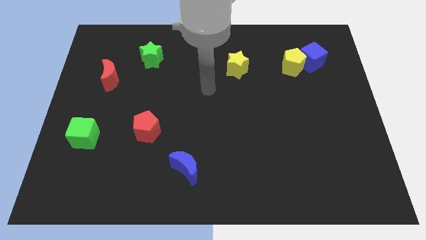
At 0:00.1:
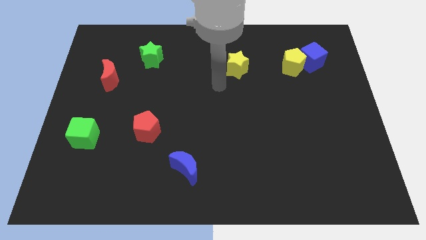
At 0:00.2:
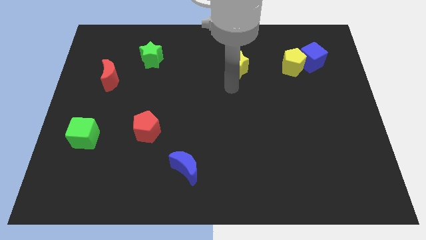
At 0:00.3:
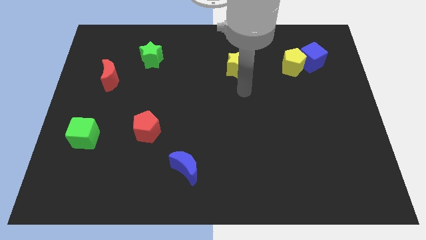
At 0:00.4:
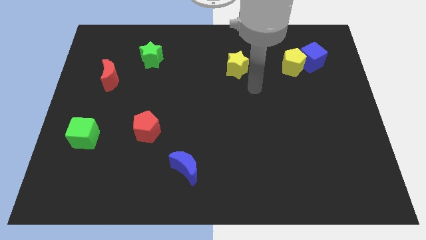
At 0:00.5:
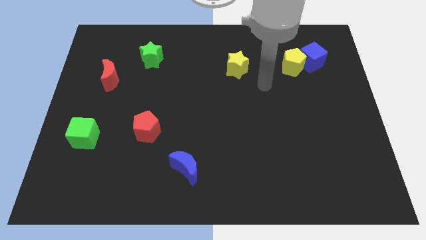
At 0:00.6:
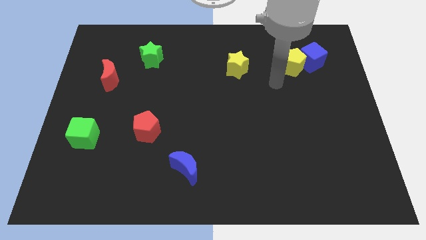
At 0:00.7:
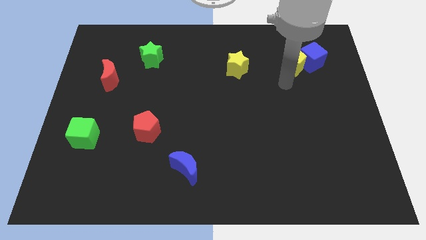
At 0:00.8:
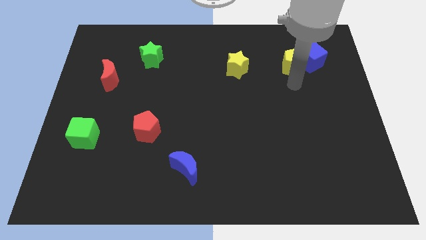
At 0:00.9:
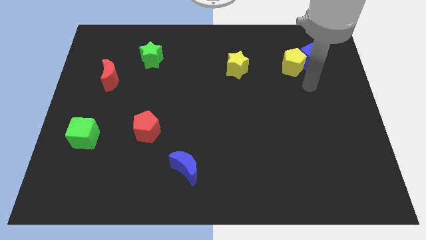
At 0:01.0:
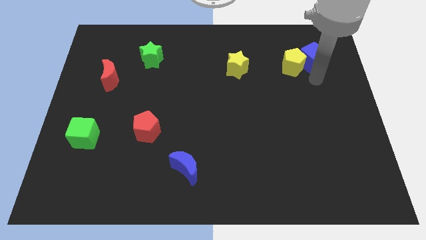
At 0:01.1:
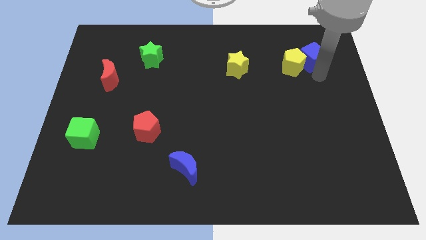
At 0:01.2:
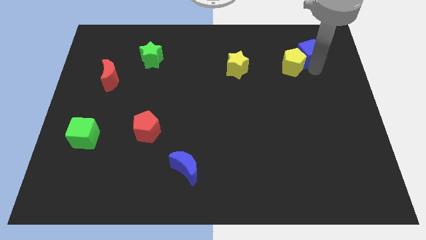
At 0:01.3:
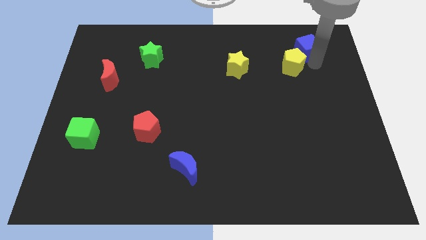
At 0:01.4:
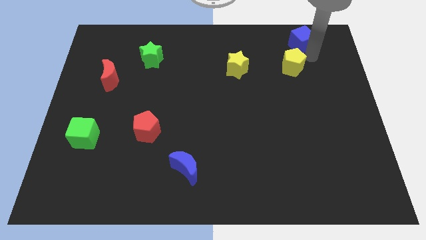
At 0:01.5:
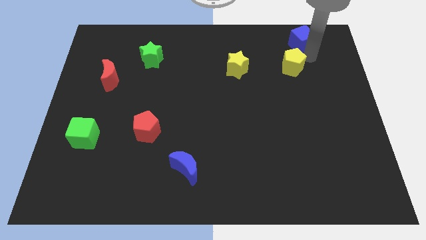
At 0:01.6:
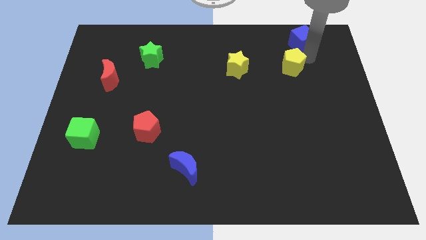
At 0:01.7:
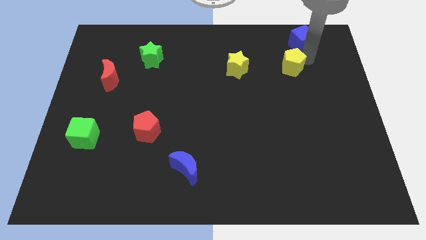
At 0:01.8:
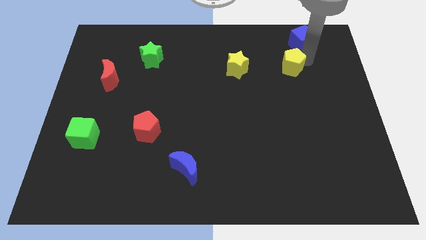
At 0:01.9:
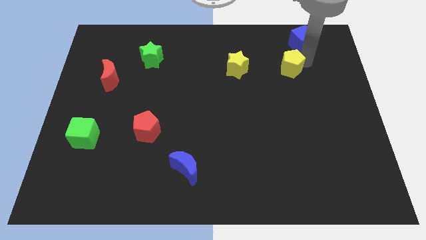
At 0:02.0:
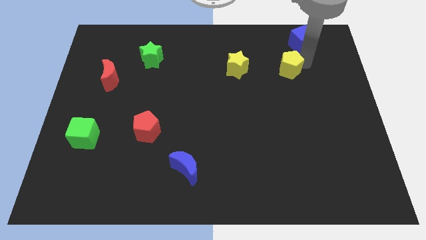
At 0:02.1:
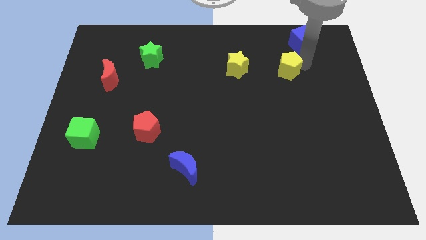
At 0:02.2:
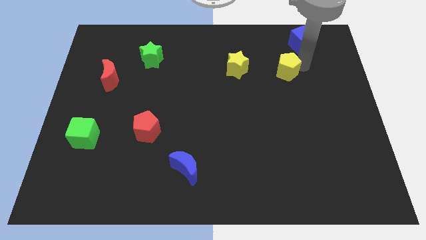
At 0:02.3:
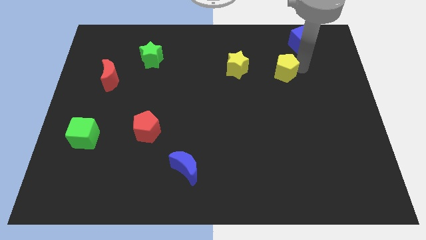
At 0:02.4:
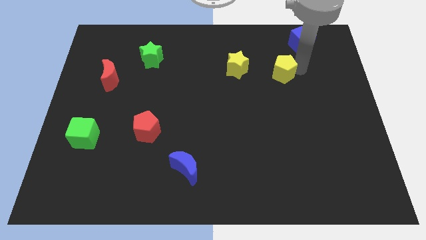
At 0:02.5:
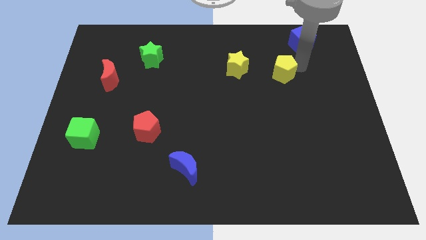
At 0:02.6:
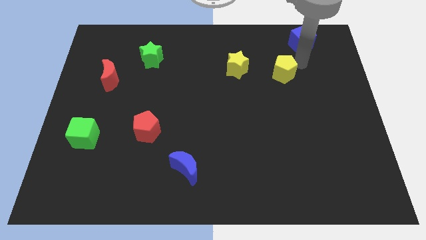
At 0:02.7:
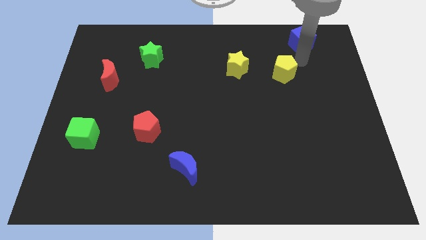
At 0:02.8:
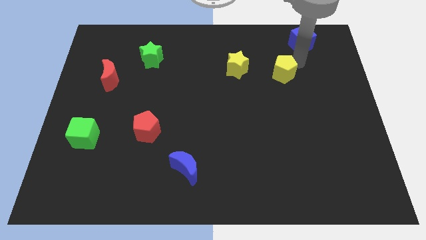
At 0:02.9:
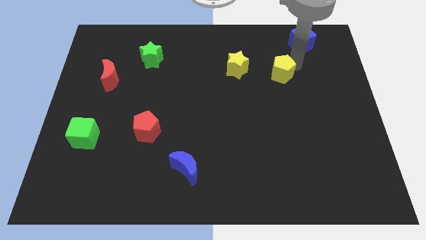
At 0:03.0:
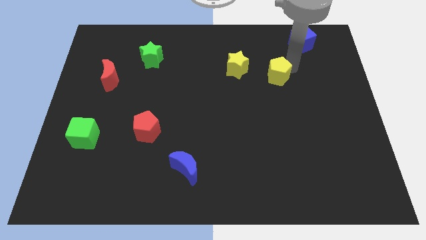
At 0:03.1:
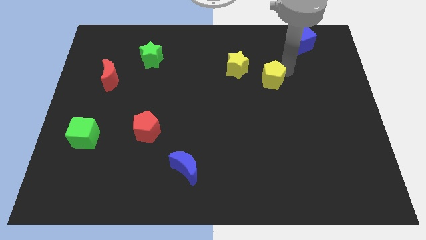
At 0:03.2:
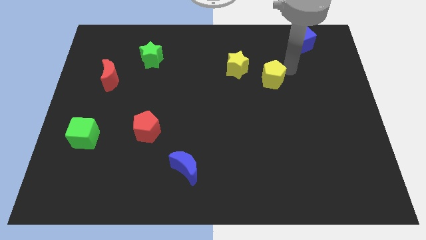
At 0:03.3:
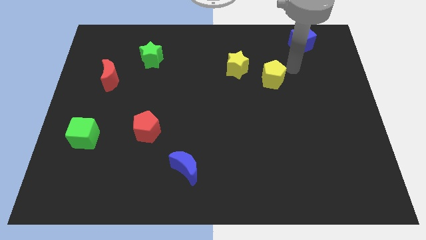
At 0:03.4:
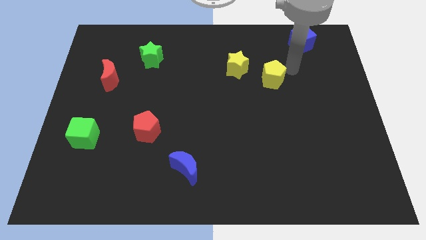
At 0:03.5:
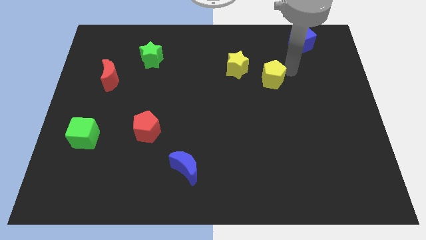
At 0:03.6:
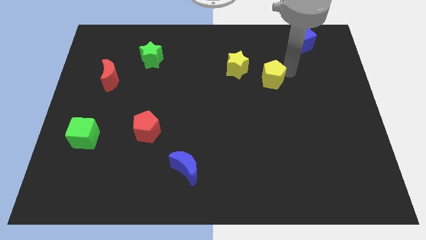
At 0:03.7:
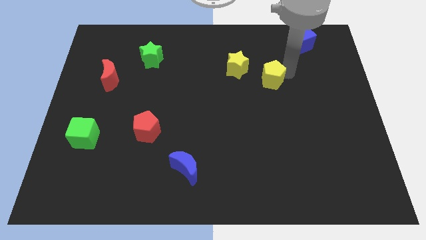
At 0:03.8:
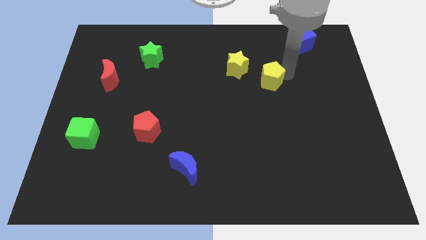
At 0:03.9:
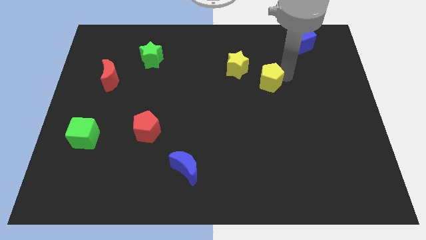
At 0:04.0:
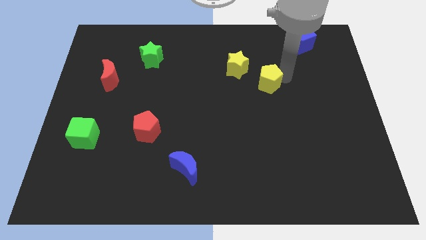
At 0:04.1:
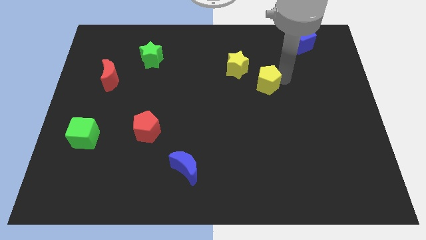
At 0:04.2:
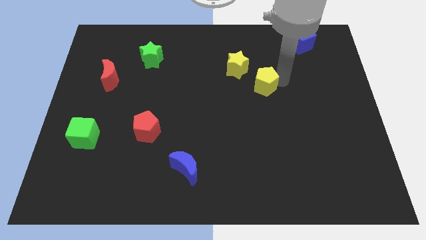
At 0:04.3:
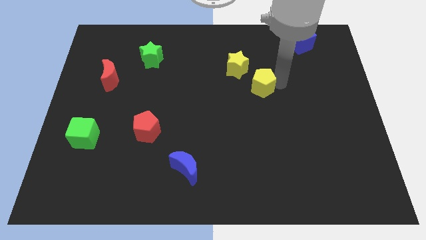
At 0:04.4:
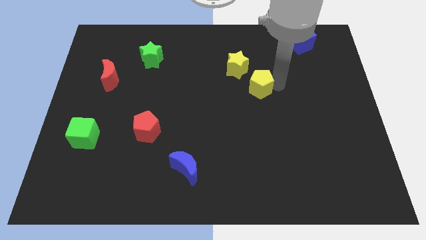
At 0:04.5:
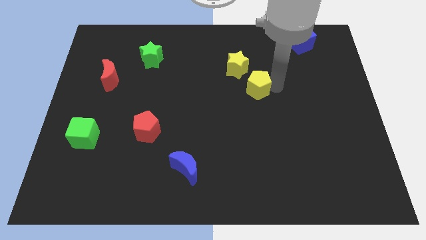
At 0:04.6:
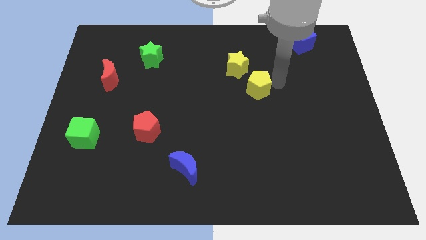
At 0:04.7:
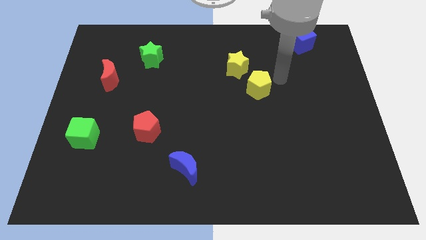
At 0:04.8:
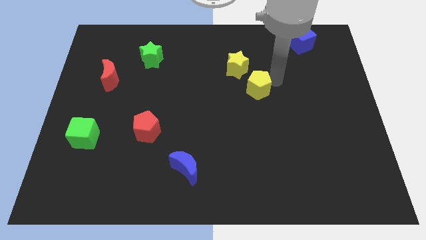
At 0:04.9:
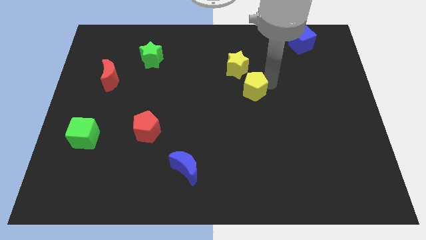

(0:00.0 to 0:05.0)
push the yellow pentagon below the yellow star

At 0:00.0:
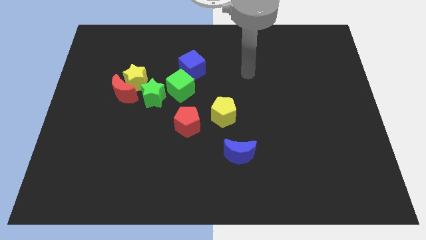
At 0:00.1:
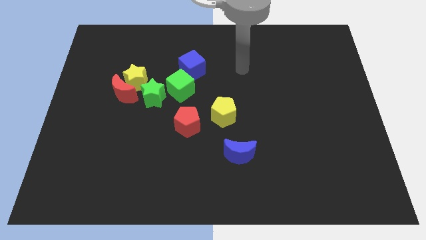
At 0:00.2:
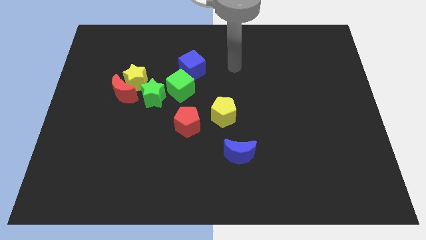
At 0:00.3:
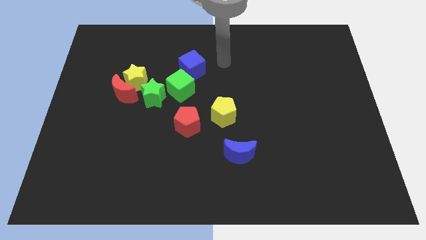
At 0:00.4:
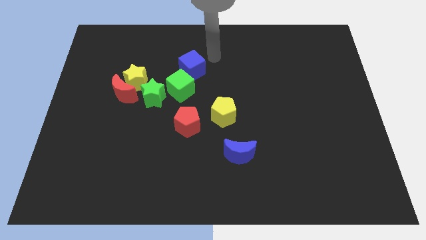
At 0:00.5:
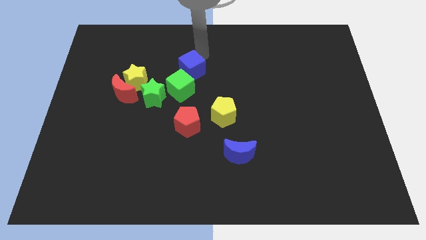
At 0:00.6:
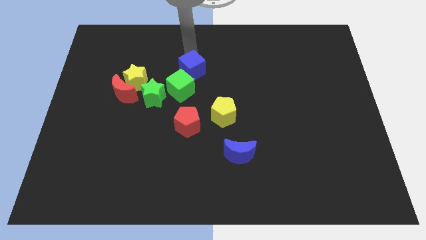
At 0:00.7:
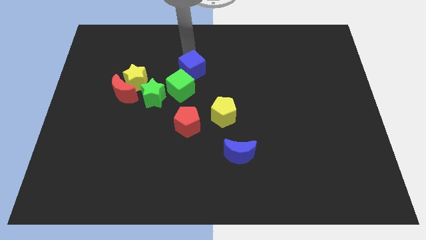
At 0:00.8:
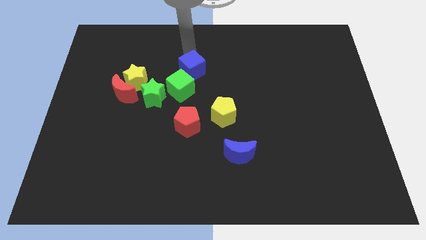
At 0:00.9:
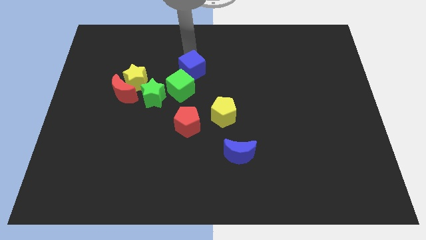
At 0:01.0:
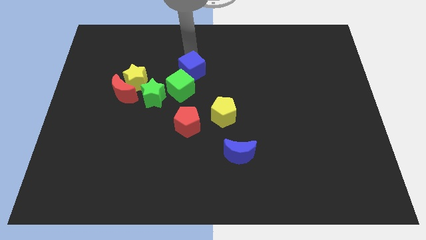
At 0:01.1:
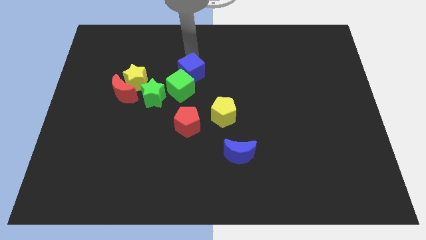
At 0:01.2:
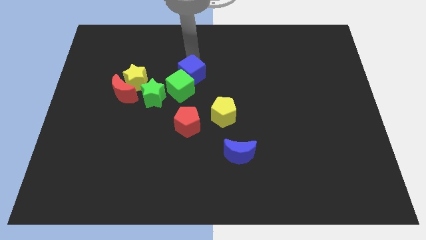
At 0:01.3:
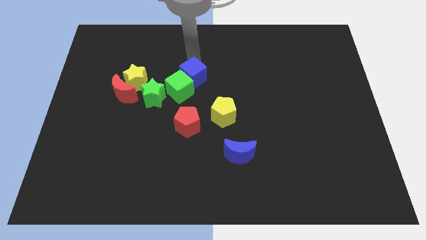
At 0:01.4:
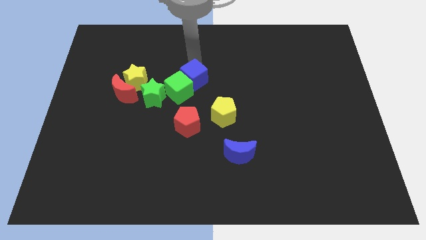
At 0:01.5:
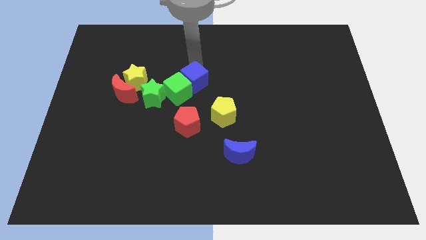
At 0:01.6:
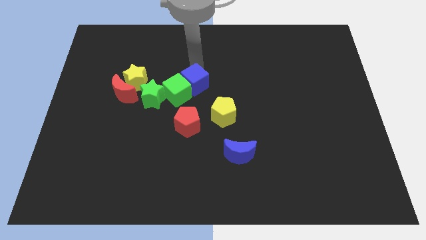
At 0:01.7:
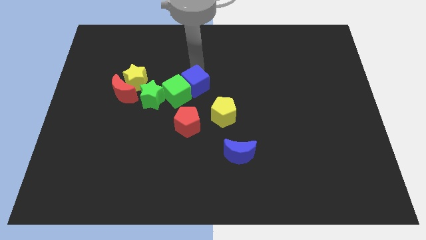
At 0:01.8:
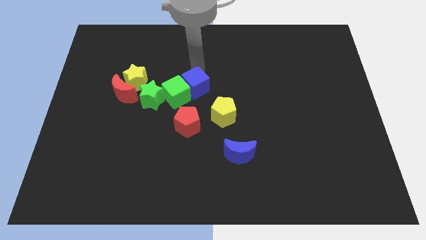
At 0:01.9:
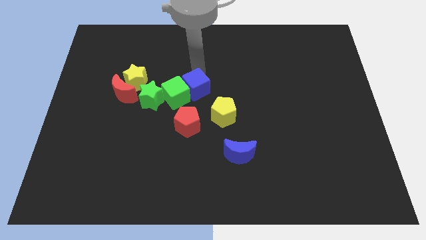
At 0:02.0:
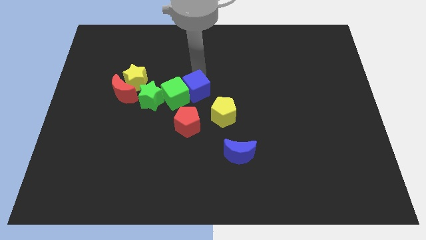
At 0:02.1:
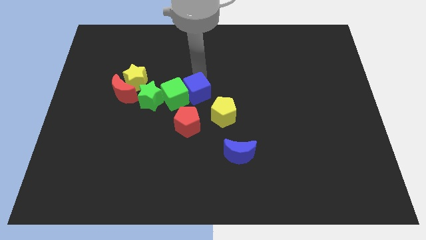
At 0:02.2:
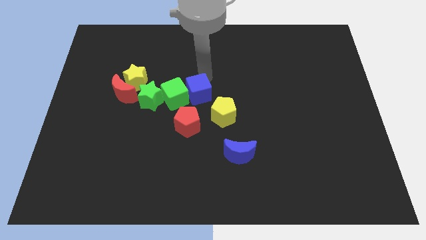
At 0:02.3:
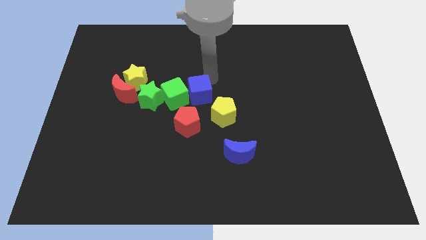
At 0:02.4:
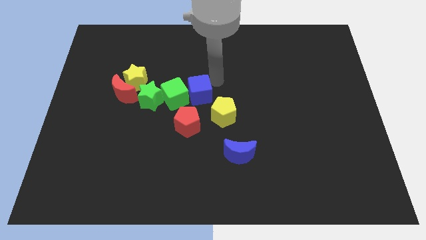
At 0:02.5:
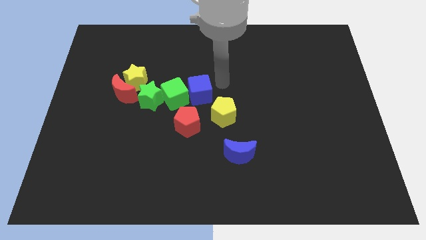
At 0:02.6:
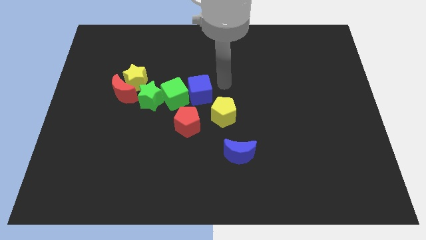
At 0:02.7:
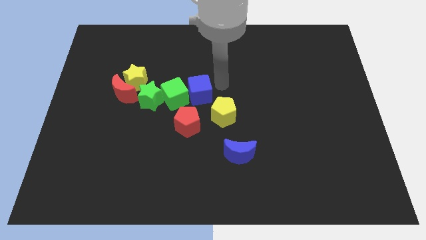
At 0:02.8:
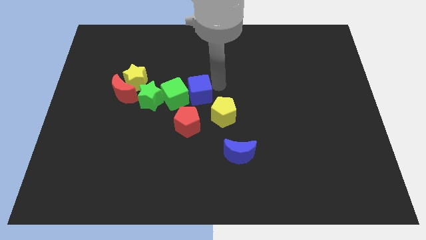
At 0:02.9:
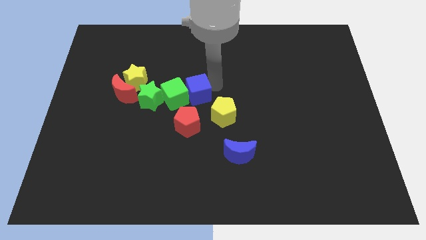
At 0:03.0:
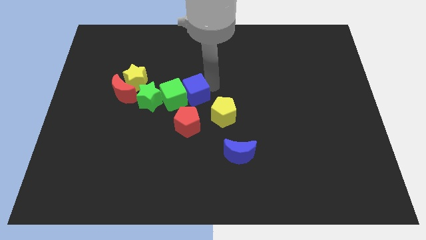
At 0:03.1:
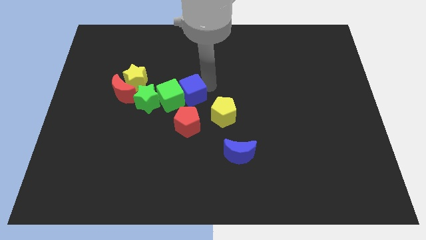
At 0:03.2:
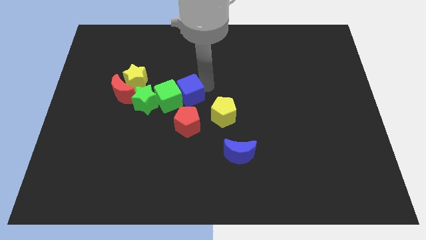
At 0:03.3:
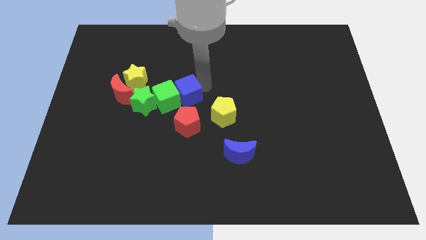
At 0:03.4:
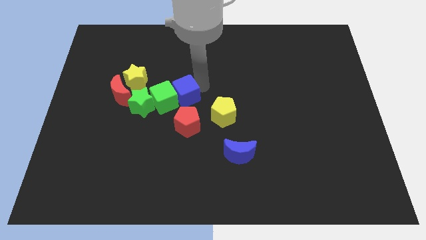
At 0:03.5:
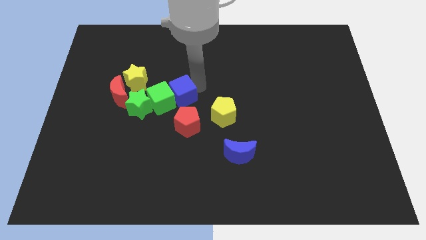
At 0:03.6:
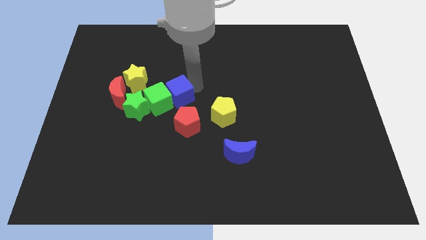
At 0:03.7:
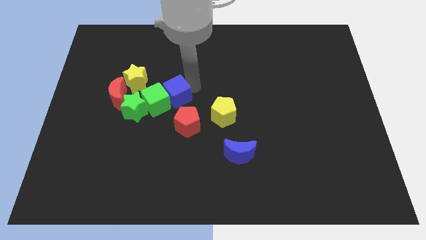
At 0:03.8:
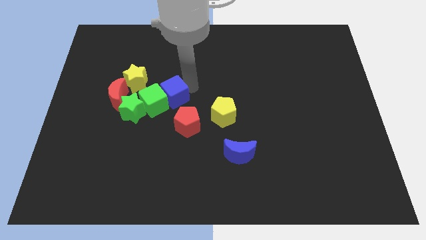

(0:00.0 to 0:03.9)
slide the blue cube diagonally down and to the right of the yellow star
